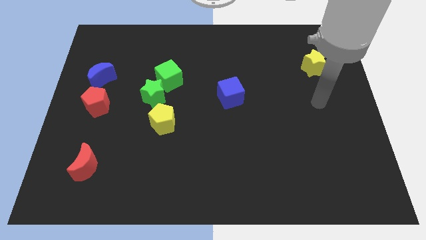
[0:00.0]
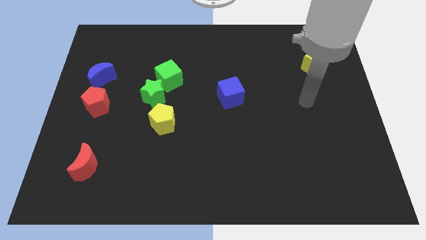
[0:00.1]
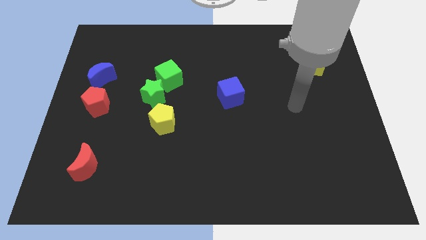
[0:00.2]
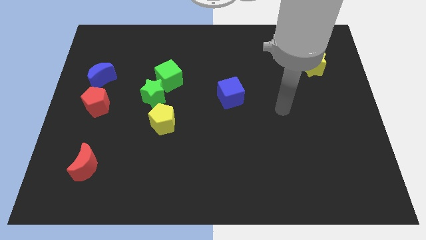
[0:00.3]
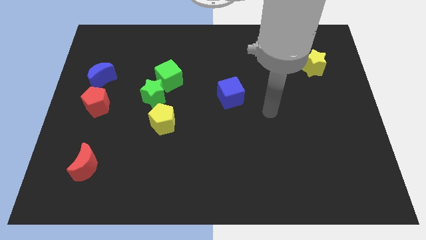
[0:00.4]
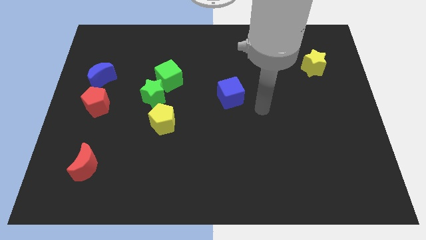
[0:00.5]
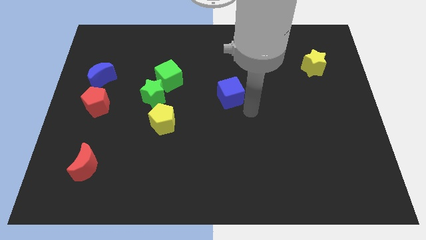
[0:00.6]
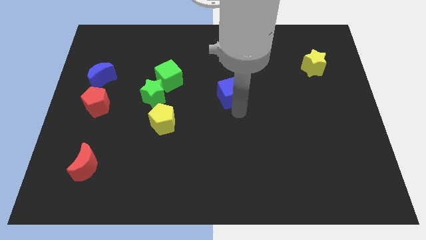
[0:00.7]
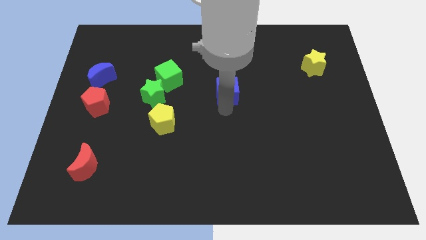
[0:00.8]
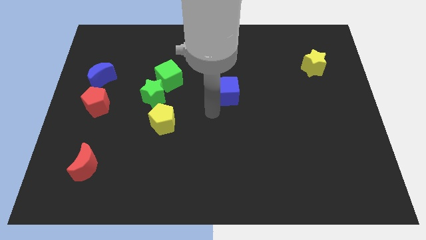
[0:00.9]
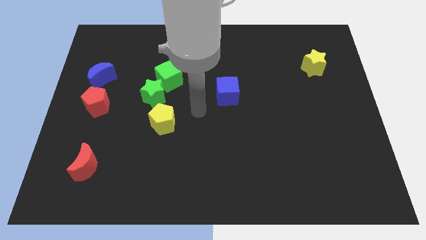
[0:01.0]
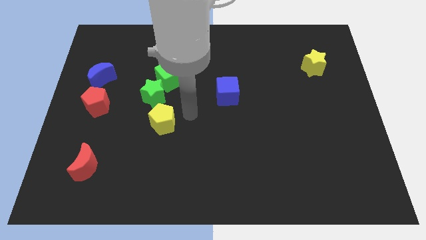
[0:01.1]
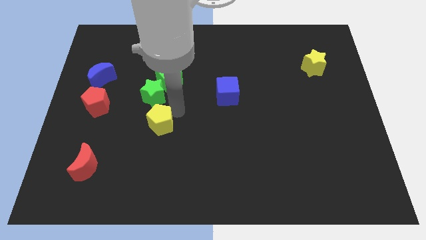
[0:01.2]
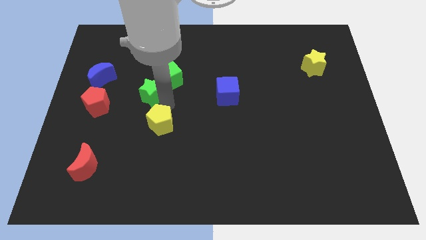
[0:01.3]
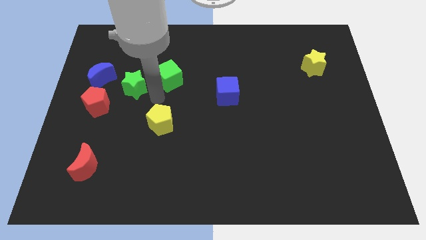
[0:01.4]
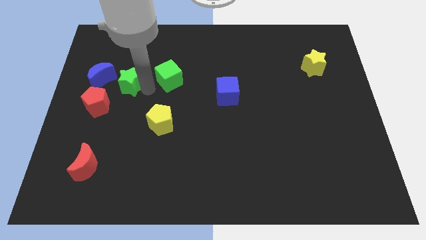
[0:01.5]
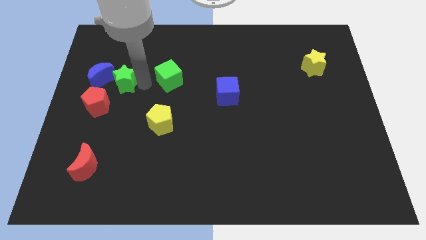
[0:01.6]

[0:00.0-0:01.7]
separate the green cube from the green star

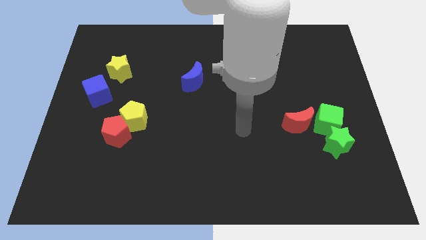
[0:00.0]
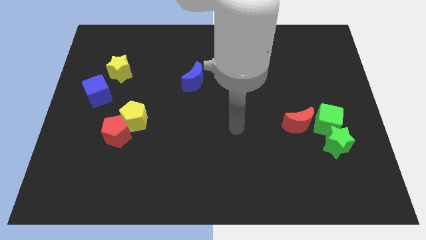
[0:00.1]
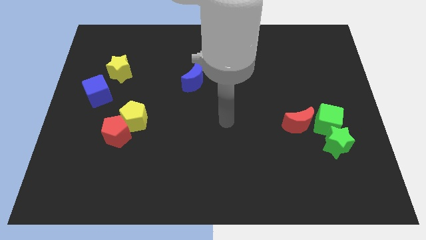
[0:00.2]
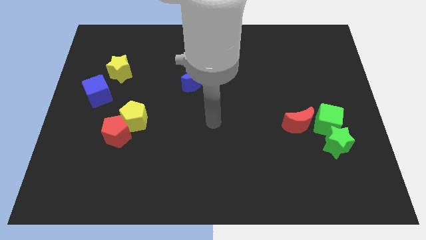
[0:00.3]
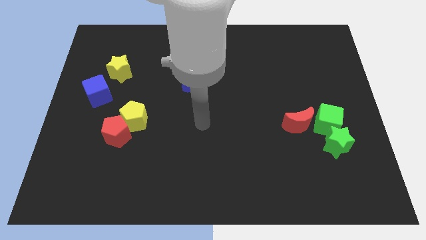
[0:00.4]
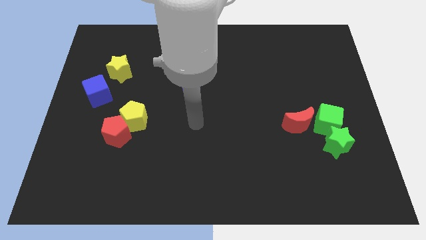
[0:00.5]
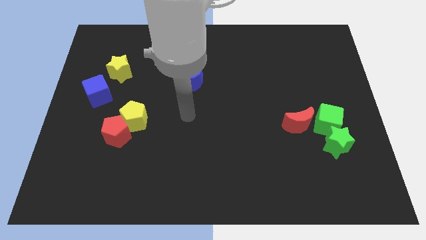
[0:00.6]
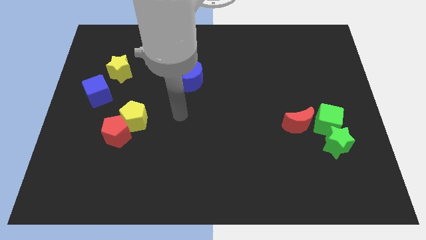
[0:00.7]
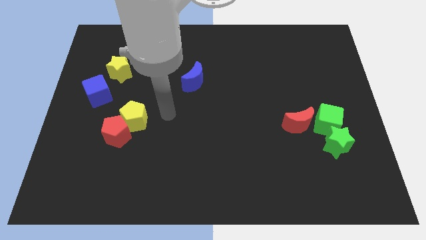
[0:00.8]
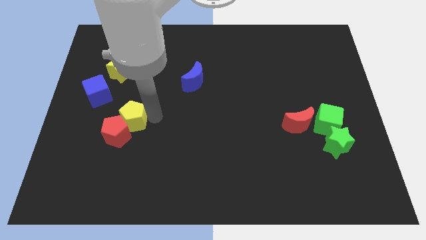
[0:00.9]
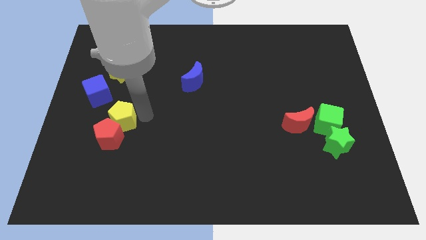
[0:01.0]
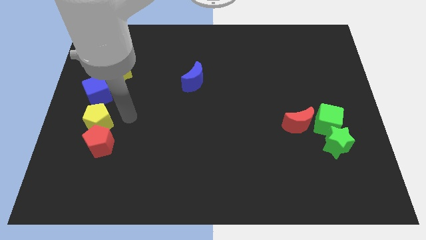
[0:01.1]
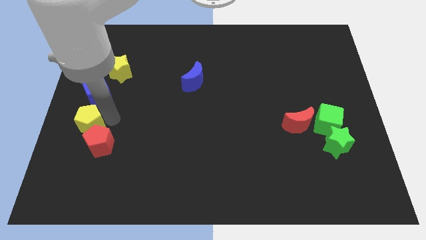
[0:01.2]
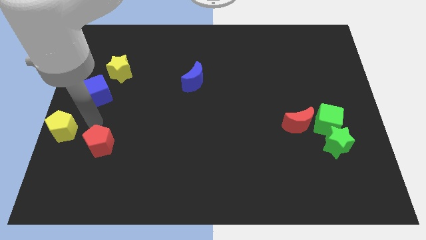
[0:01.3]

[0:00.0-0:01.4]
move the red pentagon away from the yellow pentagon

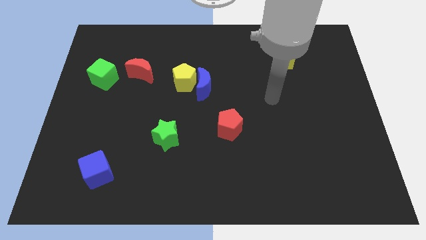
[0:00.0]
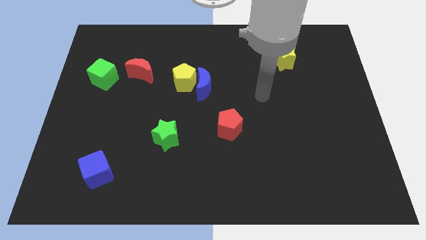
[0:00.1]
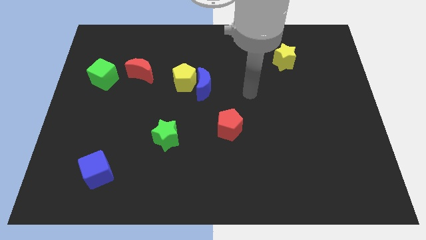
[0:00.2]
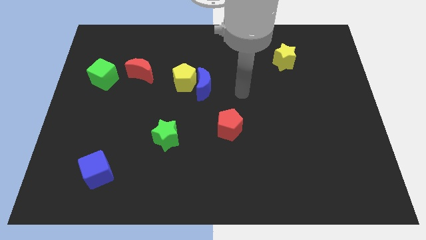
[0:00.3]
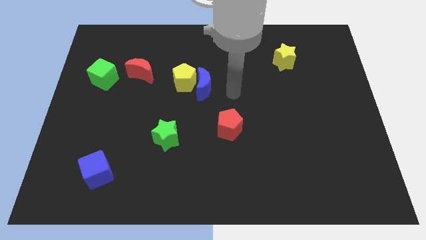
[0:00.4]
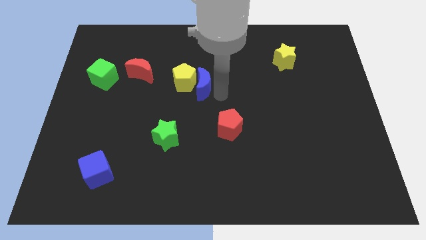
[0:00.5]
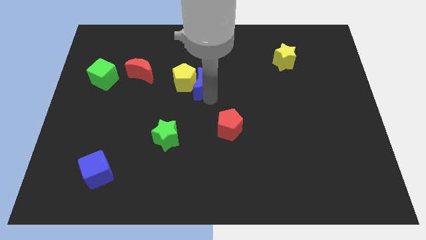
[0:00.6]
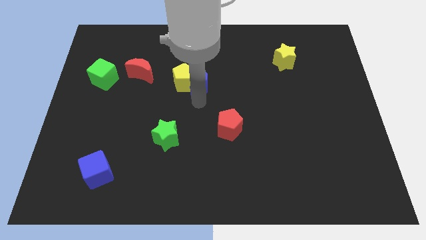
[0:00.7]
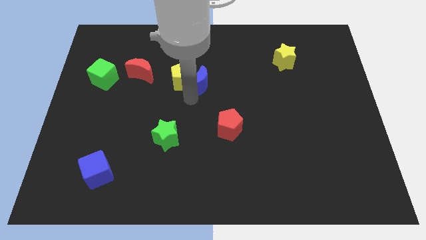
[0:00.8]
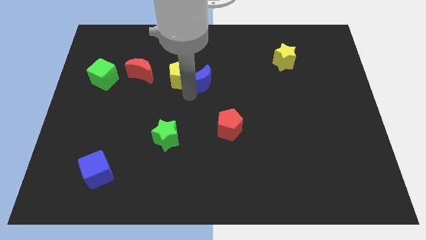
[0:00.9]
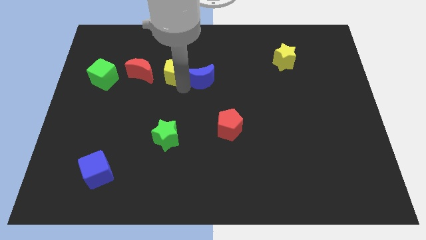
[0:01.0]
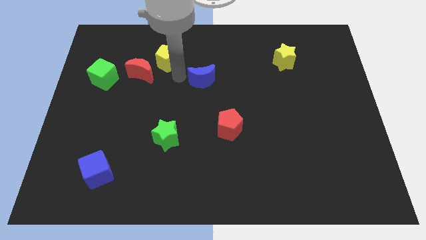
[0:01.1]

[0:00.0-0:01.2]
move the blue moon away from the yellow pentagon

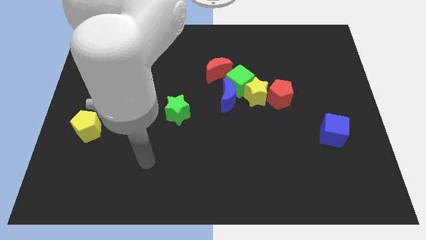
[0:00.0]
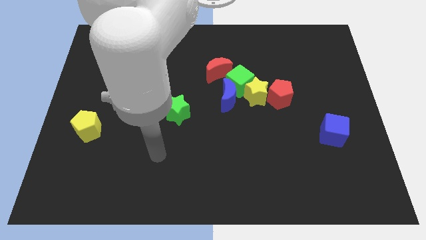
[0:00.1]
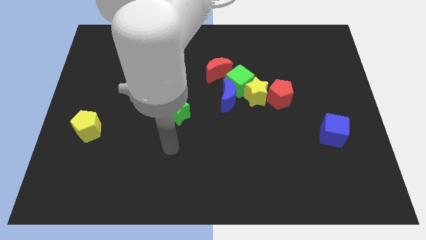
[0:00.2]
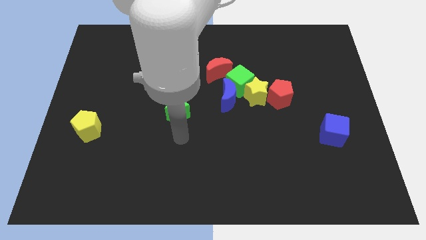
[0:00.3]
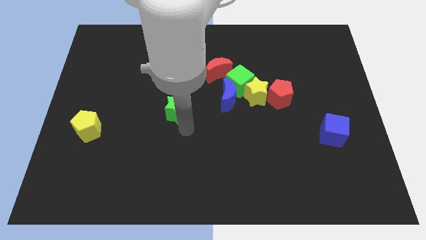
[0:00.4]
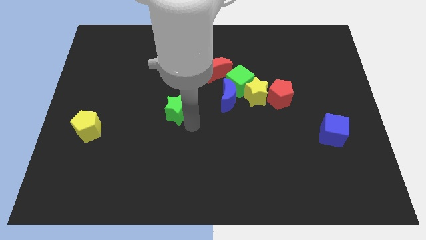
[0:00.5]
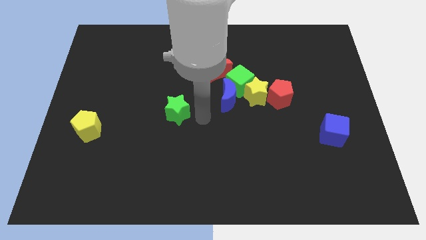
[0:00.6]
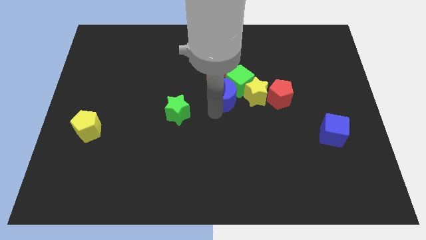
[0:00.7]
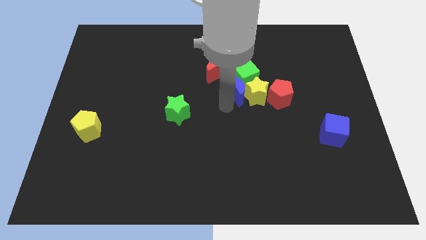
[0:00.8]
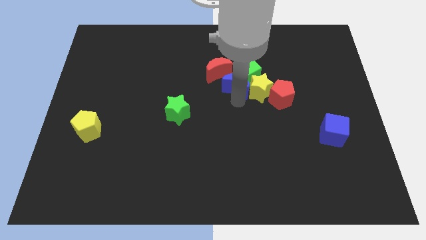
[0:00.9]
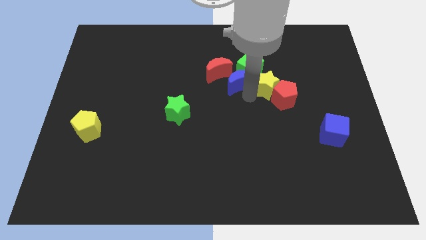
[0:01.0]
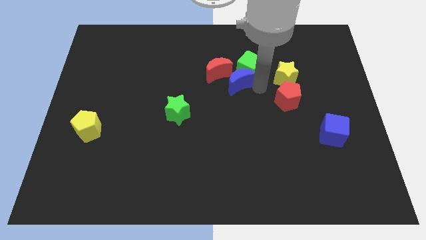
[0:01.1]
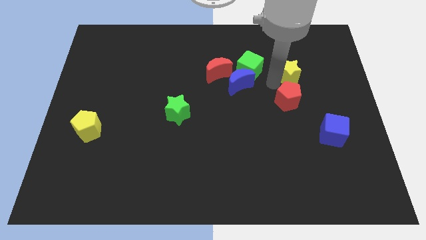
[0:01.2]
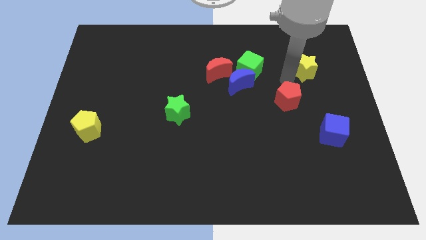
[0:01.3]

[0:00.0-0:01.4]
pull the red pentagon apart from the yellow star

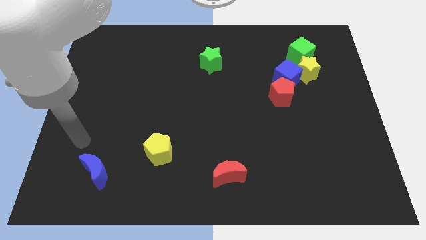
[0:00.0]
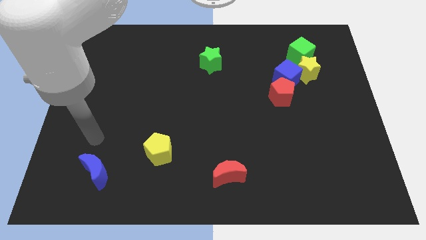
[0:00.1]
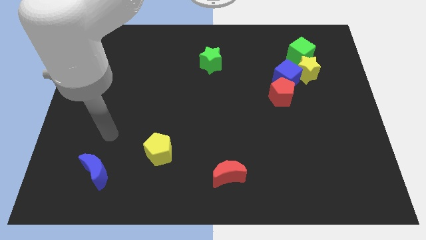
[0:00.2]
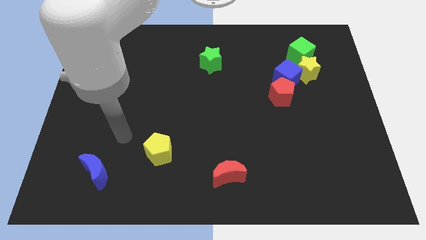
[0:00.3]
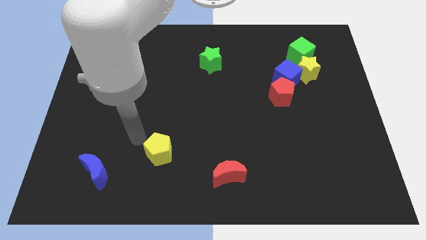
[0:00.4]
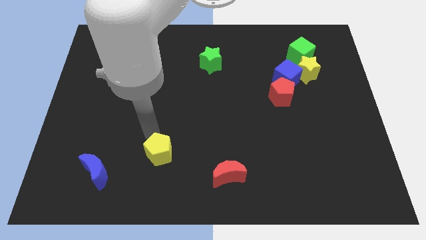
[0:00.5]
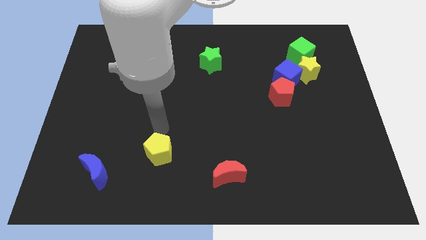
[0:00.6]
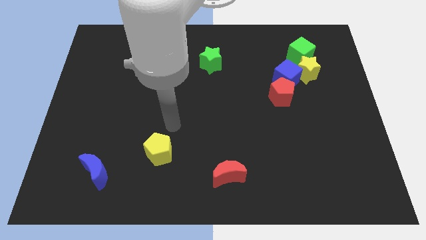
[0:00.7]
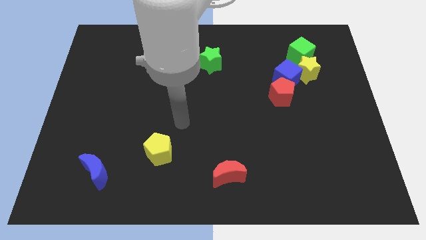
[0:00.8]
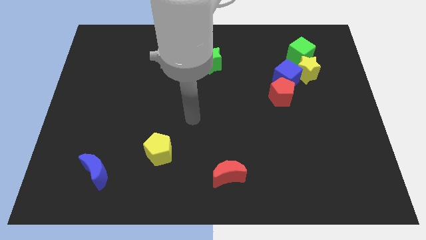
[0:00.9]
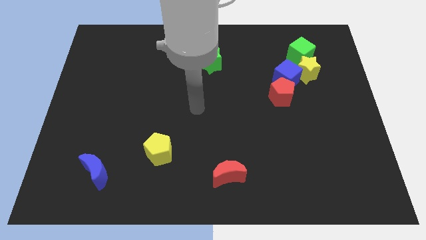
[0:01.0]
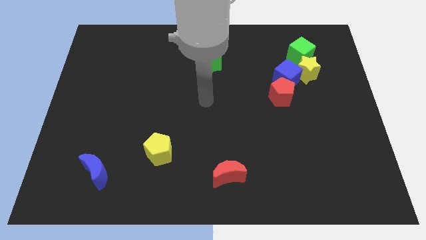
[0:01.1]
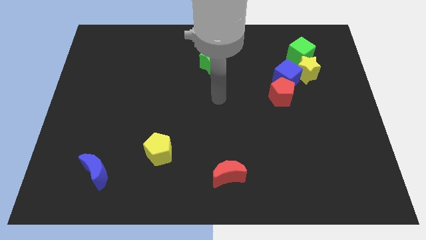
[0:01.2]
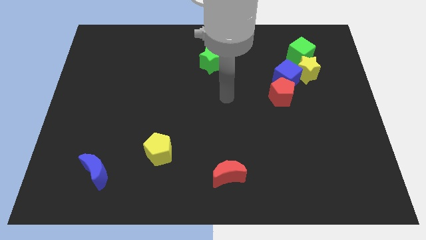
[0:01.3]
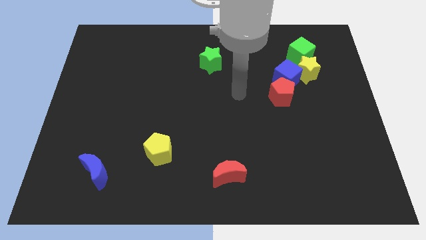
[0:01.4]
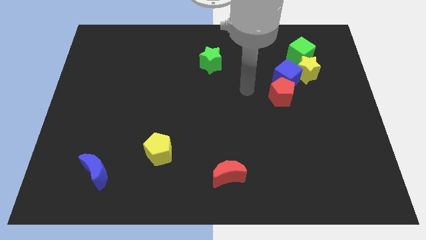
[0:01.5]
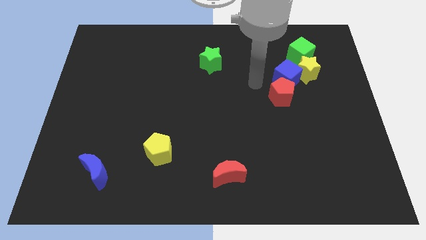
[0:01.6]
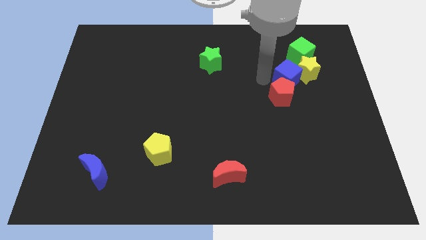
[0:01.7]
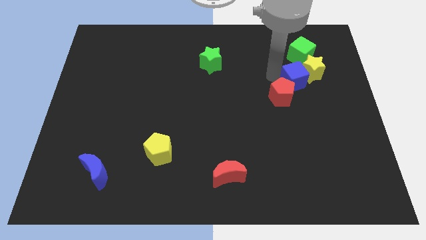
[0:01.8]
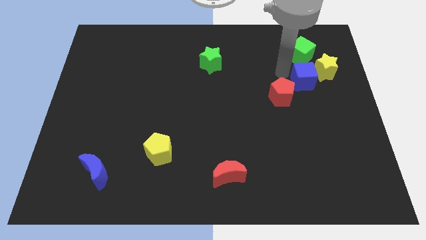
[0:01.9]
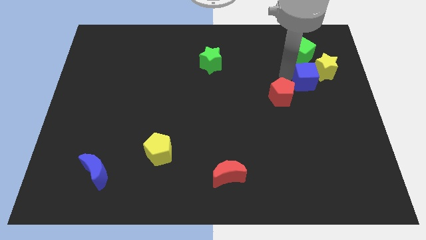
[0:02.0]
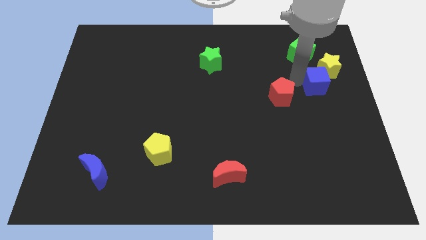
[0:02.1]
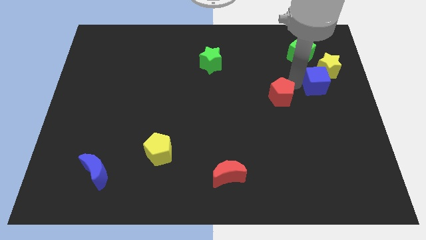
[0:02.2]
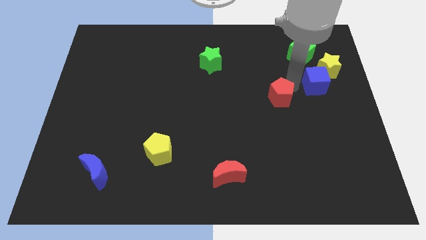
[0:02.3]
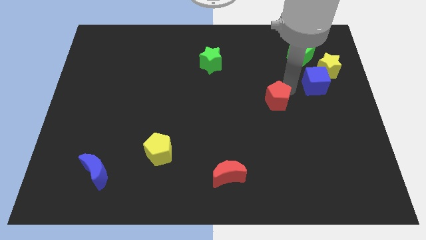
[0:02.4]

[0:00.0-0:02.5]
move the red pentagon away from the blue cube

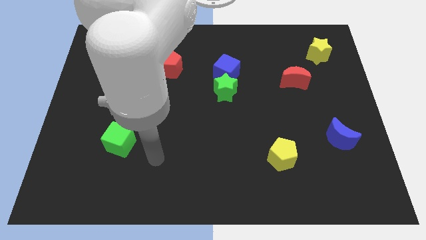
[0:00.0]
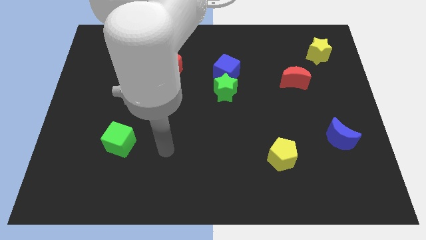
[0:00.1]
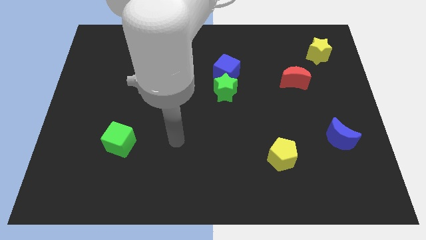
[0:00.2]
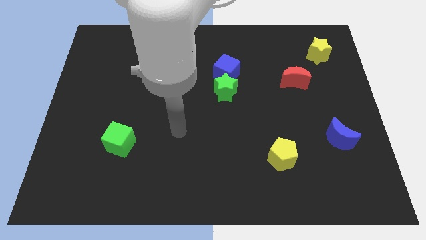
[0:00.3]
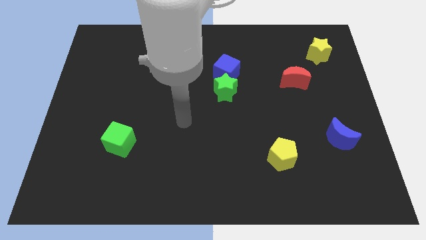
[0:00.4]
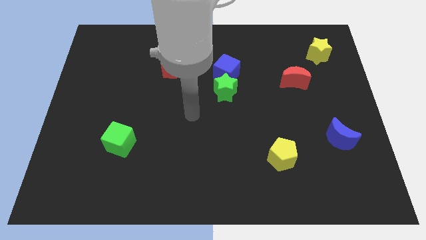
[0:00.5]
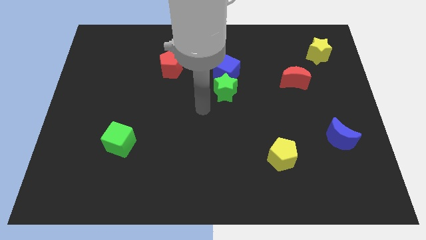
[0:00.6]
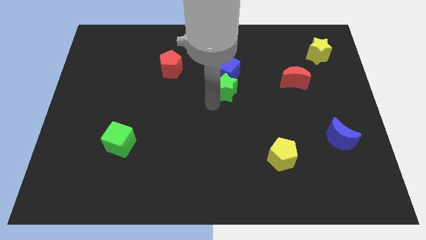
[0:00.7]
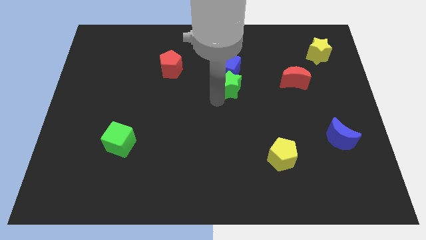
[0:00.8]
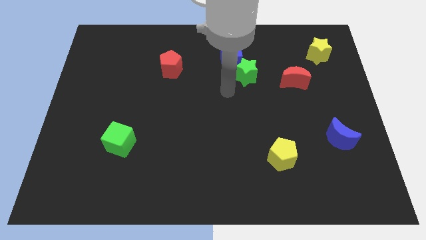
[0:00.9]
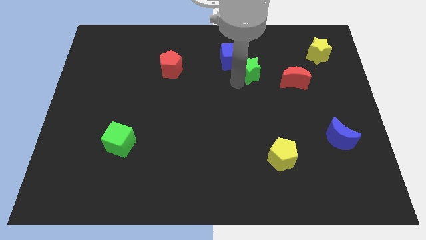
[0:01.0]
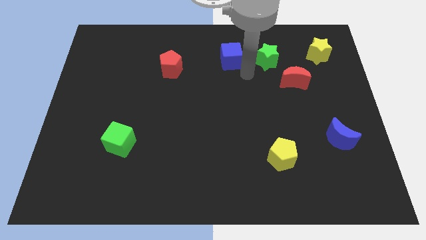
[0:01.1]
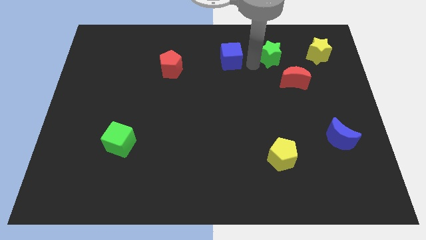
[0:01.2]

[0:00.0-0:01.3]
move the blue cube away from the green star

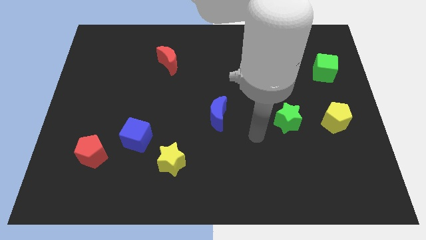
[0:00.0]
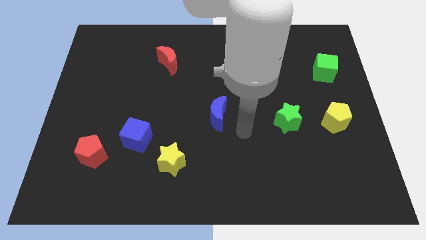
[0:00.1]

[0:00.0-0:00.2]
separate the red pentagon from the blue cube
